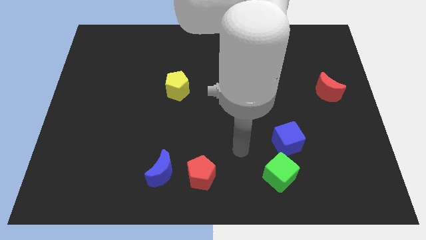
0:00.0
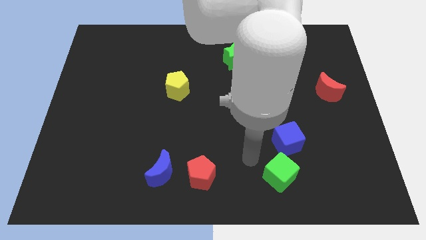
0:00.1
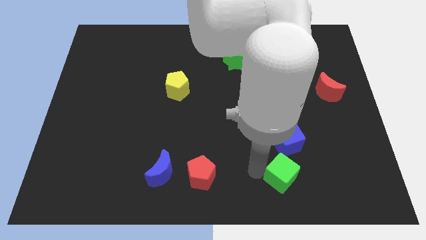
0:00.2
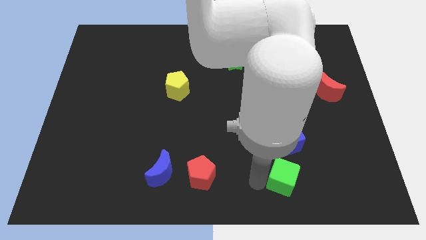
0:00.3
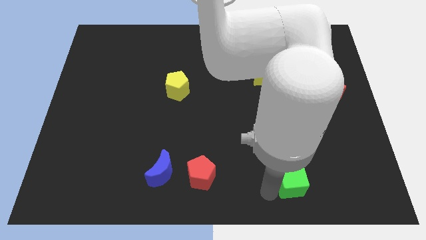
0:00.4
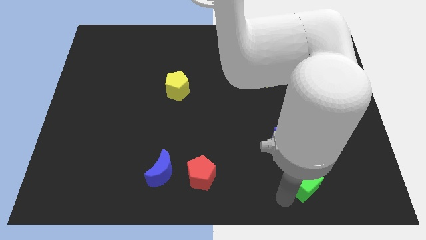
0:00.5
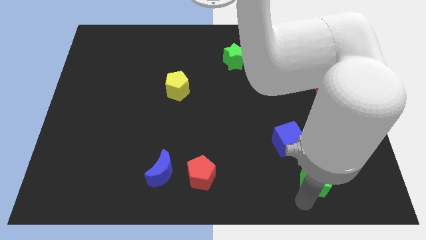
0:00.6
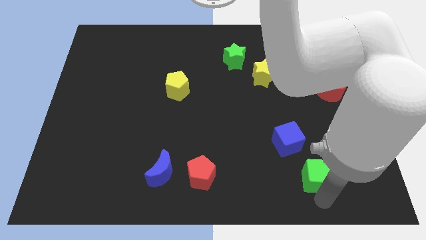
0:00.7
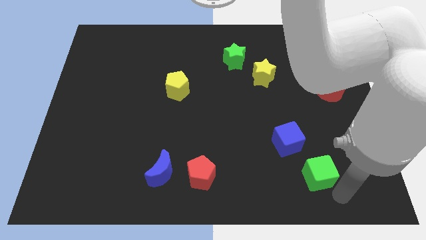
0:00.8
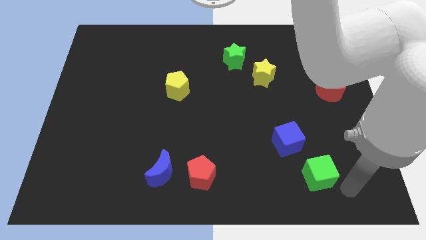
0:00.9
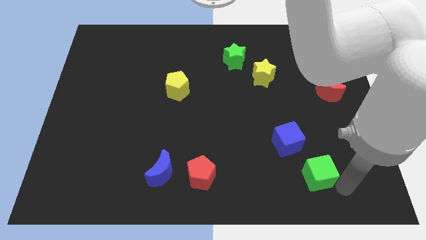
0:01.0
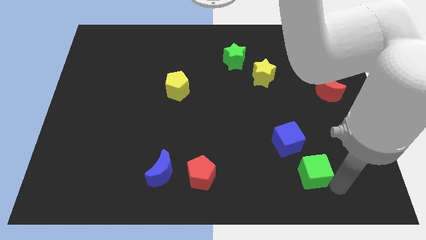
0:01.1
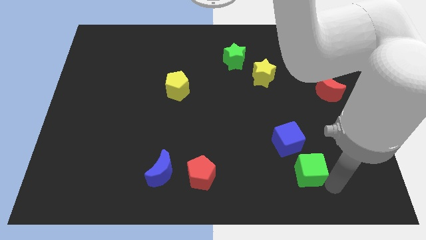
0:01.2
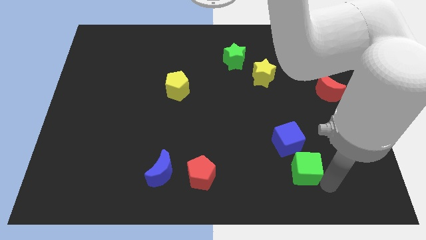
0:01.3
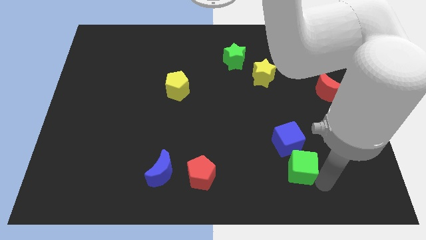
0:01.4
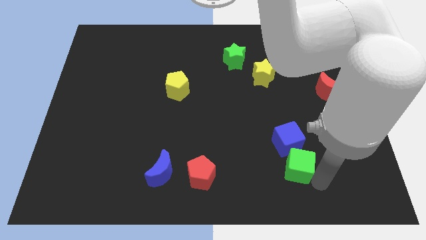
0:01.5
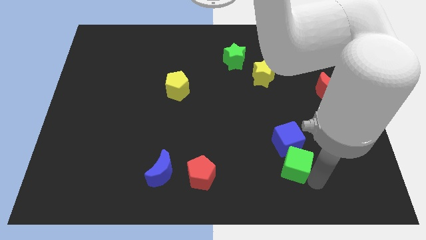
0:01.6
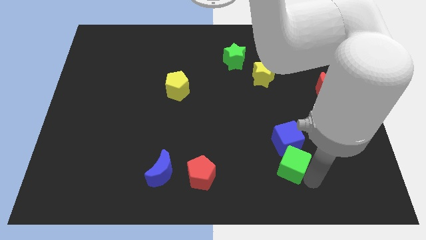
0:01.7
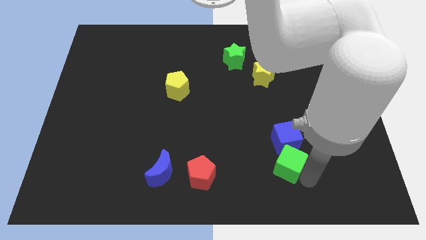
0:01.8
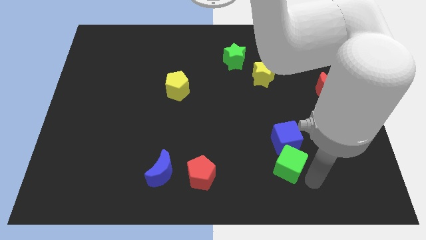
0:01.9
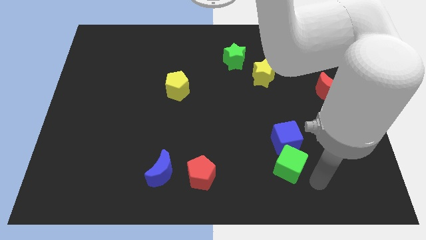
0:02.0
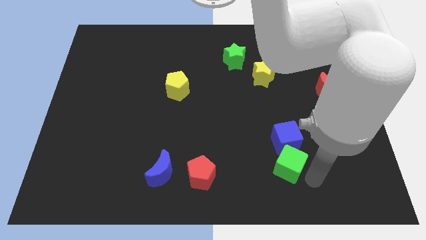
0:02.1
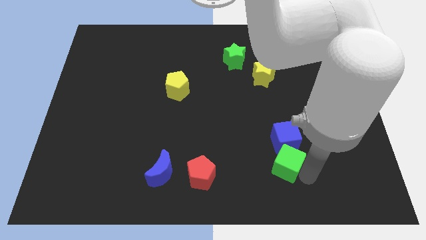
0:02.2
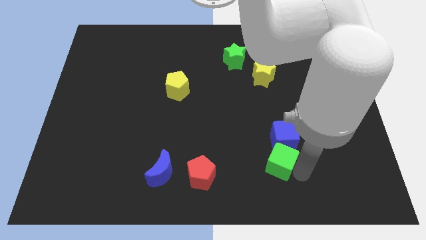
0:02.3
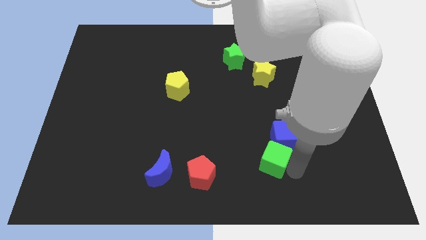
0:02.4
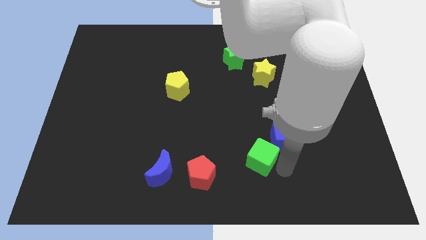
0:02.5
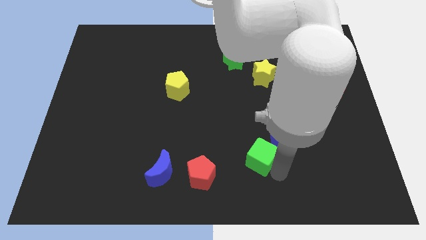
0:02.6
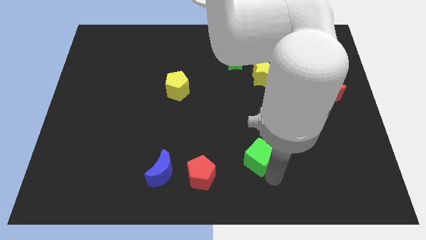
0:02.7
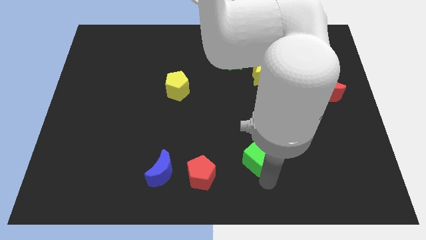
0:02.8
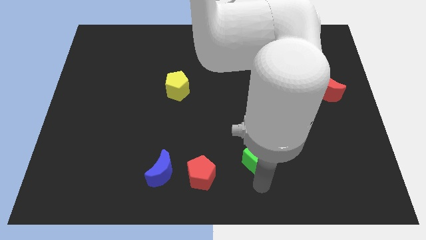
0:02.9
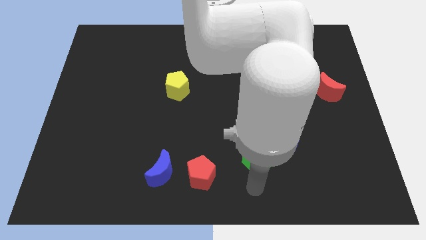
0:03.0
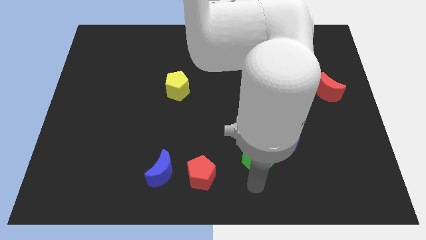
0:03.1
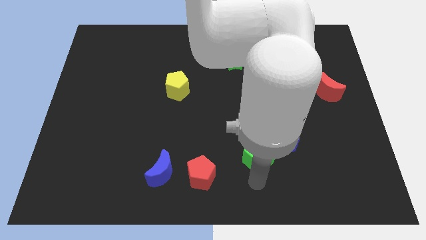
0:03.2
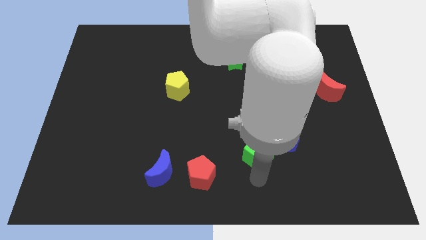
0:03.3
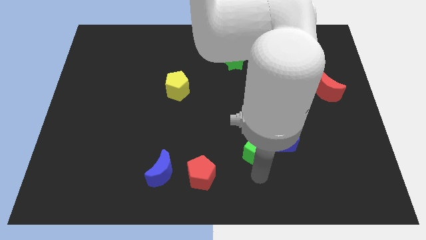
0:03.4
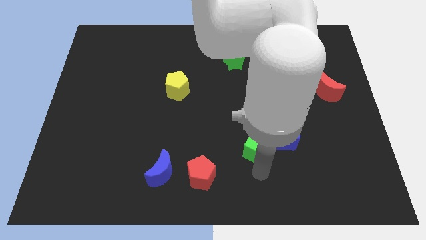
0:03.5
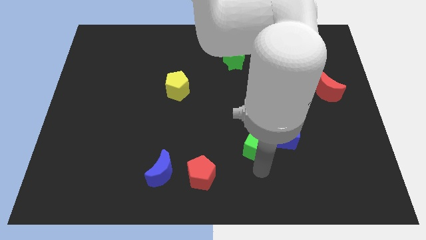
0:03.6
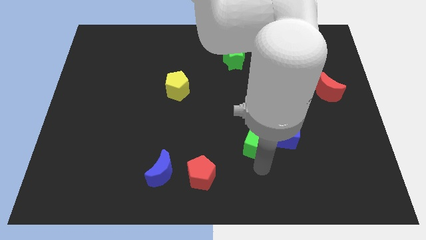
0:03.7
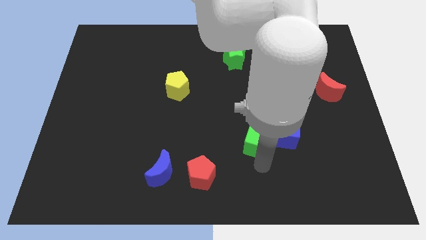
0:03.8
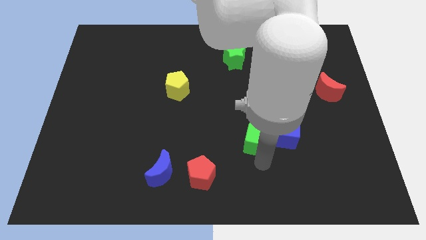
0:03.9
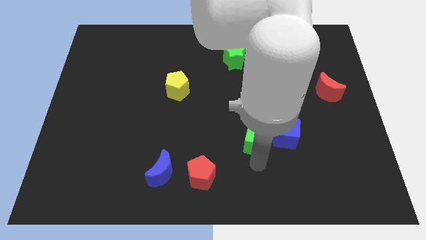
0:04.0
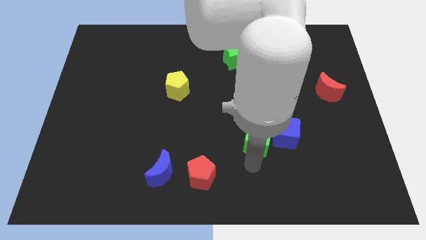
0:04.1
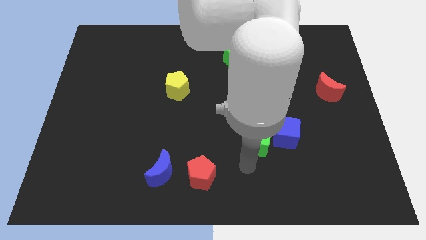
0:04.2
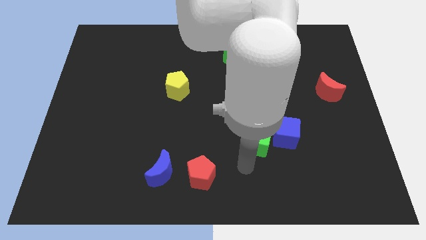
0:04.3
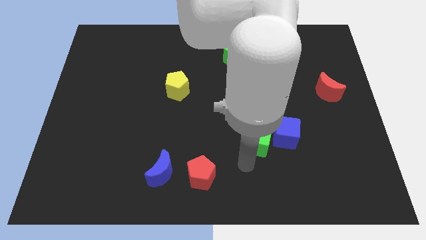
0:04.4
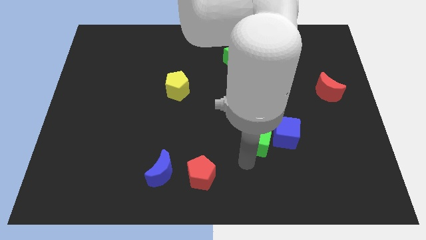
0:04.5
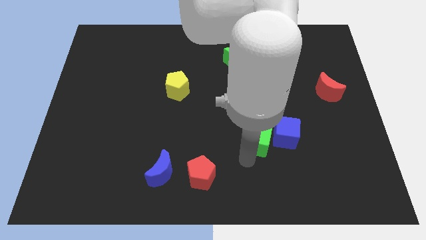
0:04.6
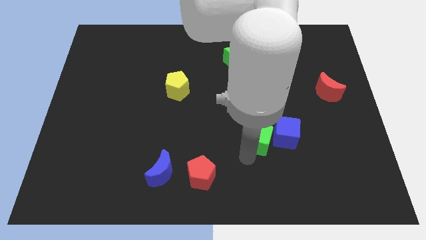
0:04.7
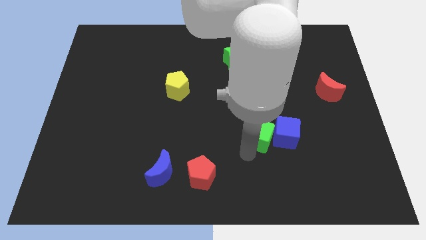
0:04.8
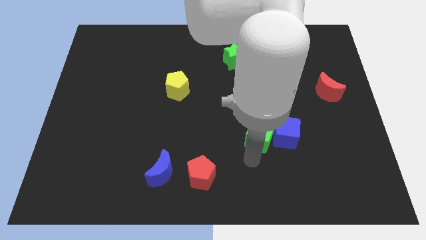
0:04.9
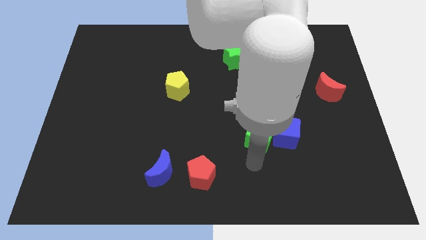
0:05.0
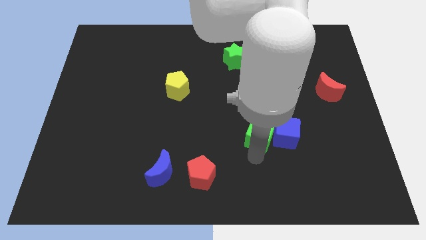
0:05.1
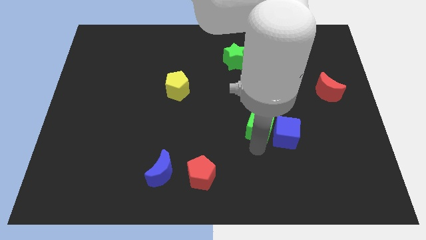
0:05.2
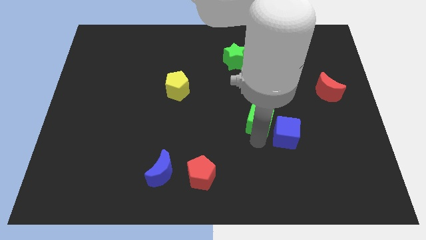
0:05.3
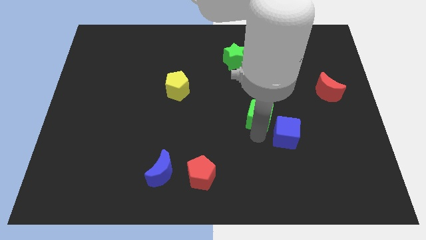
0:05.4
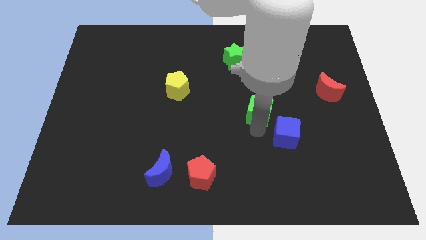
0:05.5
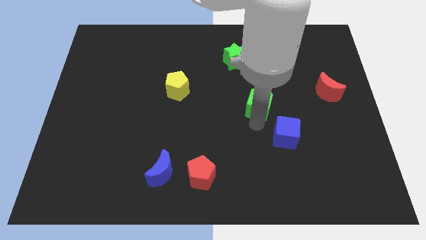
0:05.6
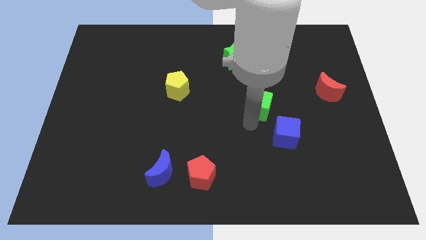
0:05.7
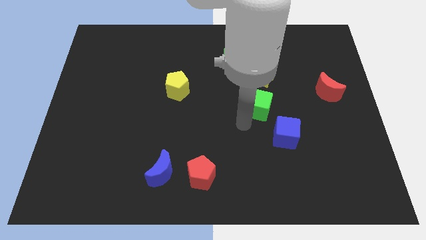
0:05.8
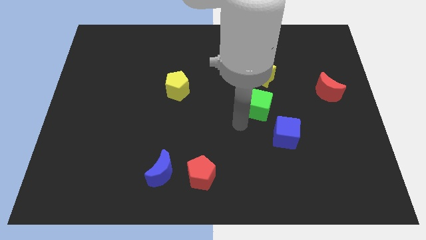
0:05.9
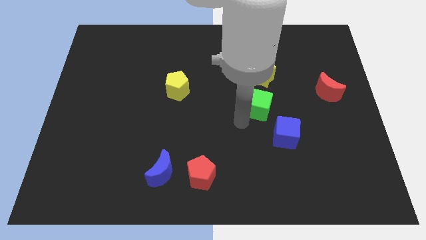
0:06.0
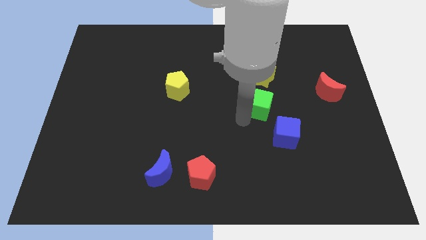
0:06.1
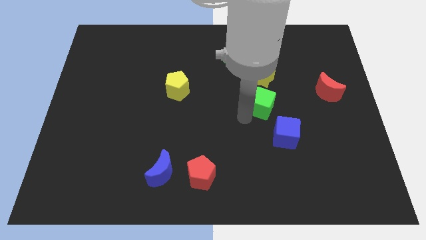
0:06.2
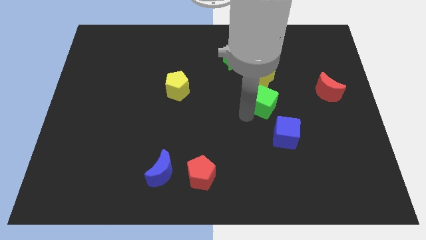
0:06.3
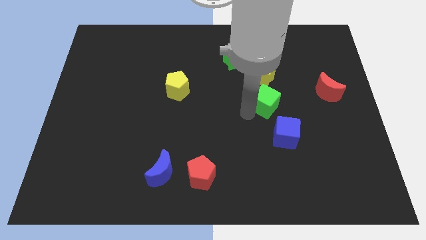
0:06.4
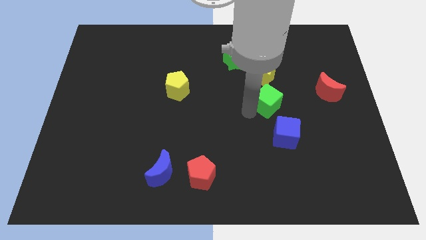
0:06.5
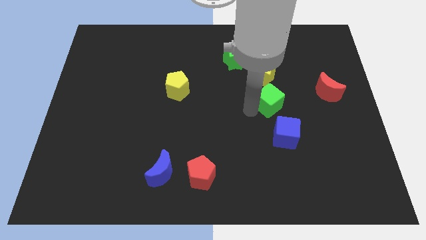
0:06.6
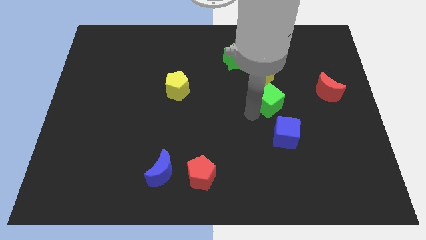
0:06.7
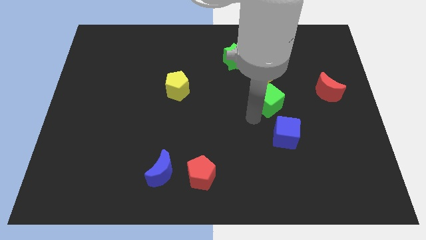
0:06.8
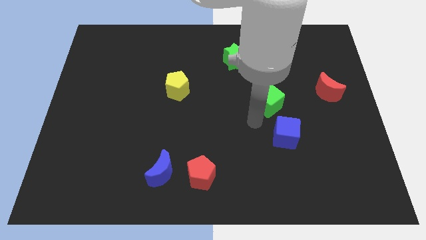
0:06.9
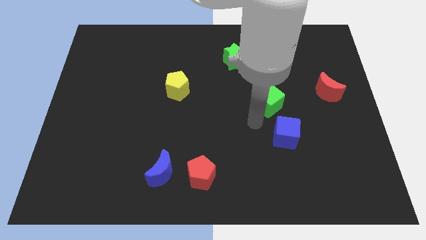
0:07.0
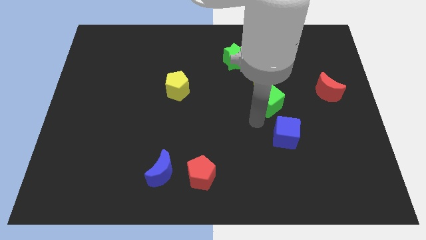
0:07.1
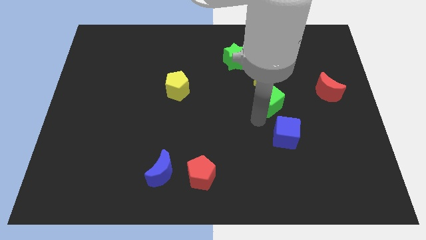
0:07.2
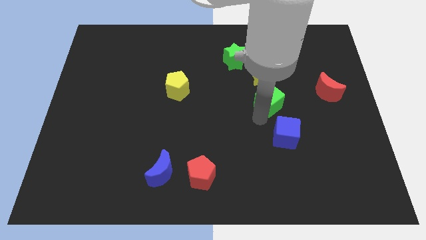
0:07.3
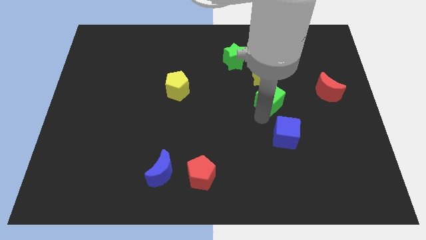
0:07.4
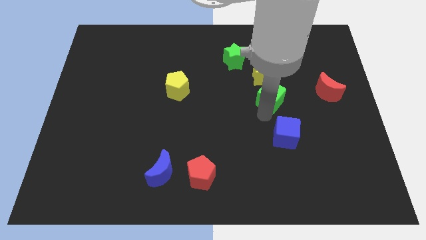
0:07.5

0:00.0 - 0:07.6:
slide the green cube upwards
